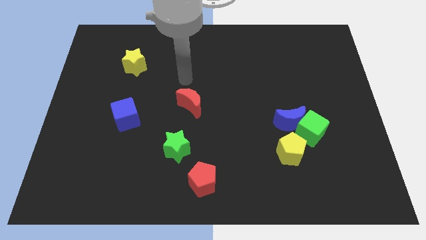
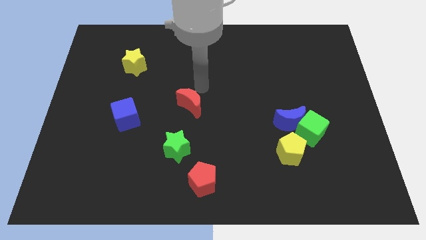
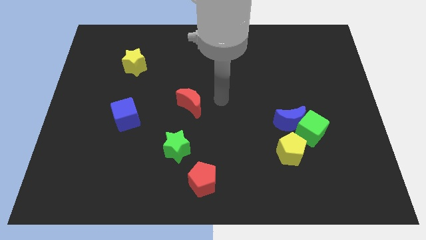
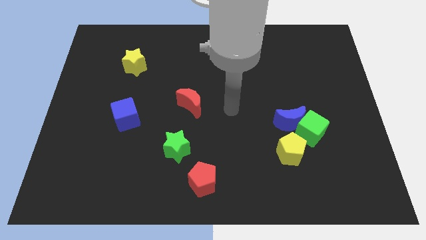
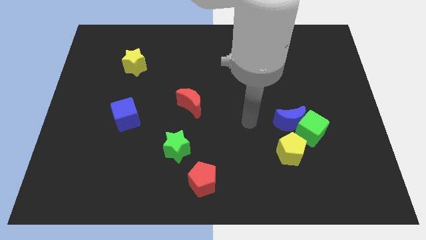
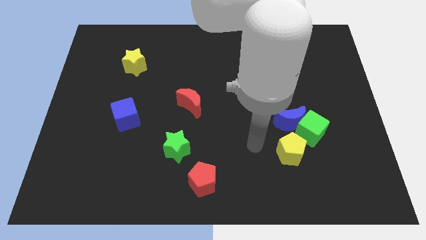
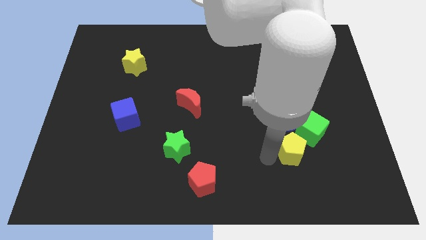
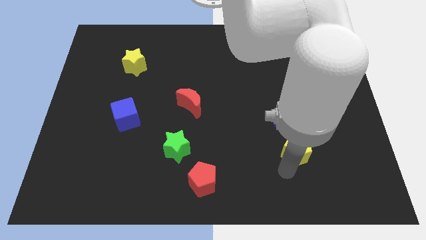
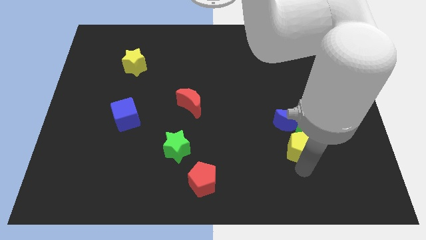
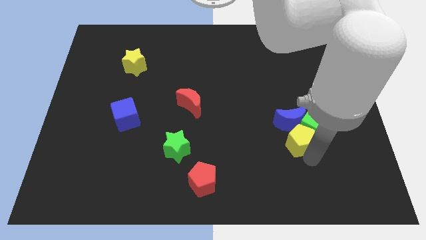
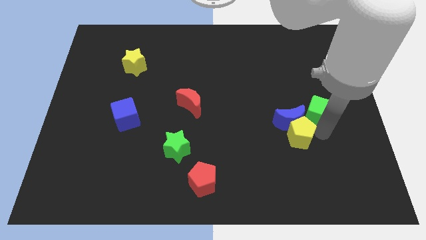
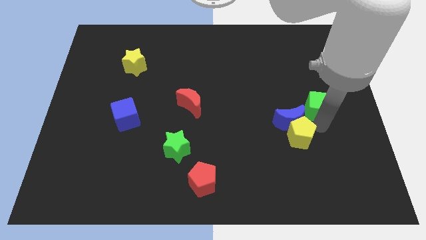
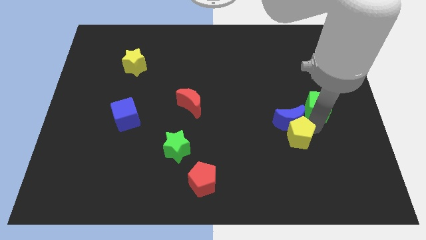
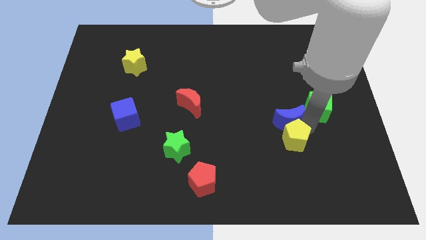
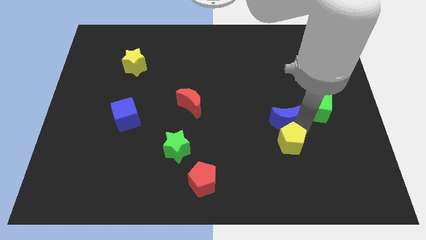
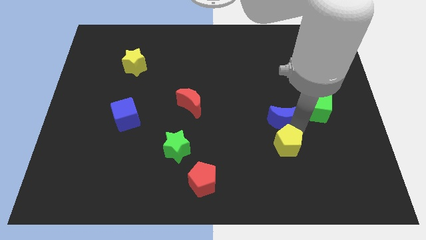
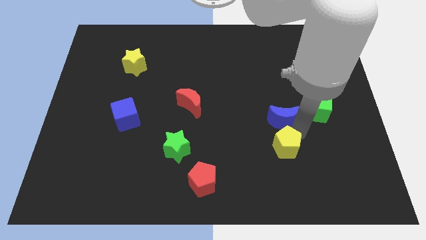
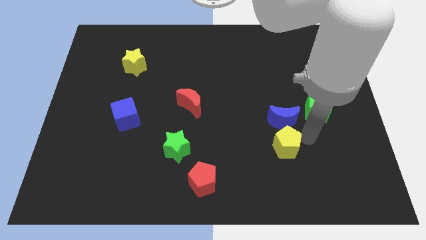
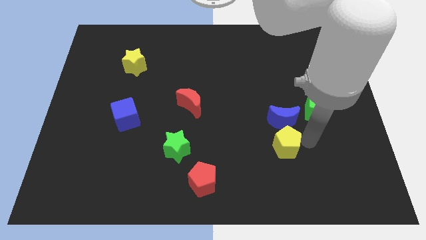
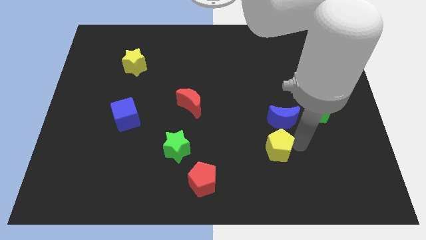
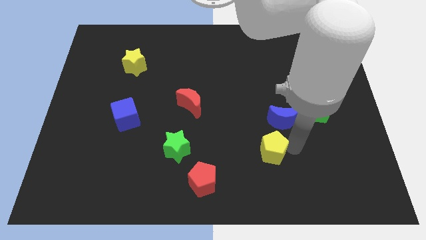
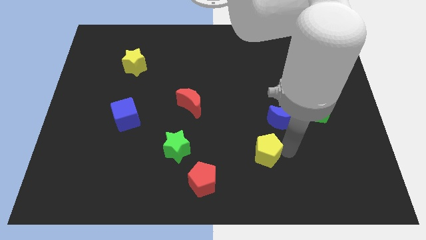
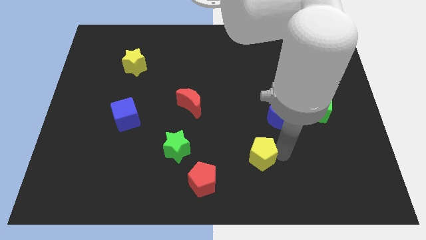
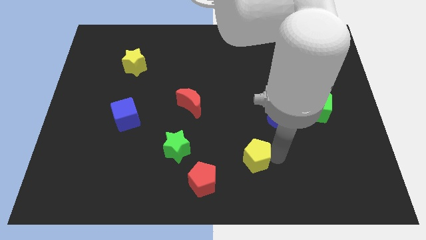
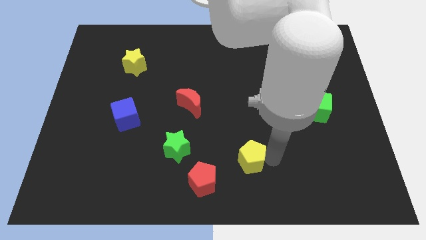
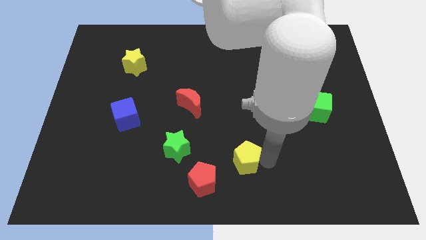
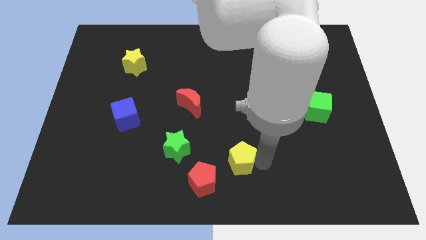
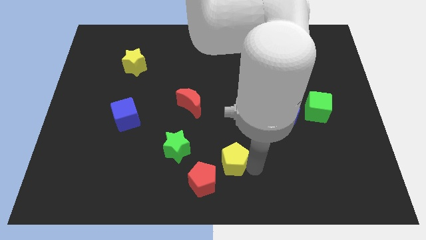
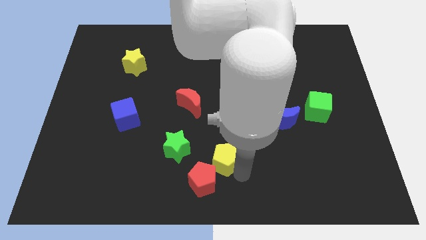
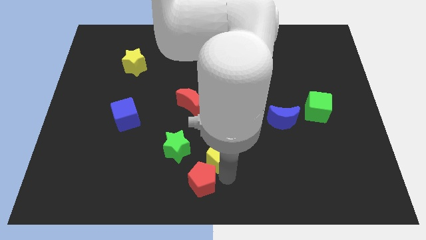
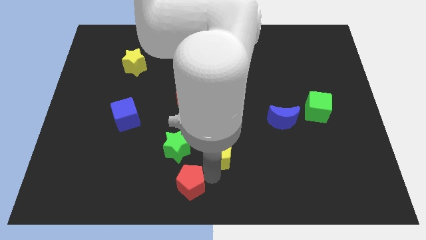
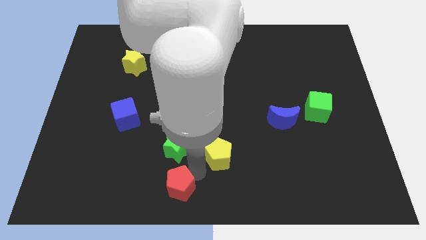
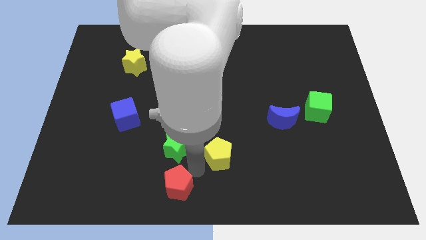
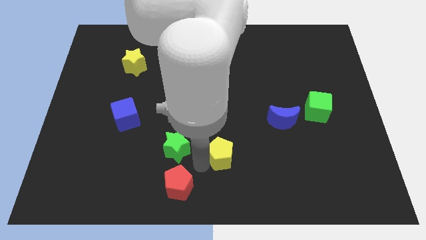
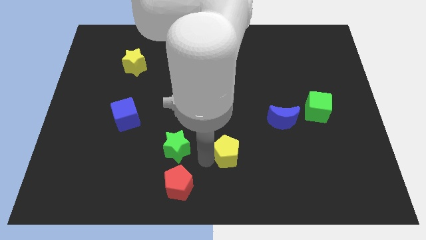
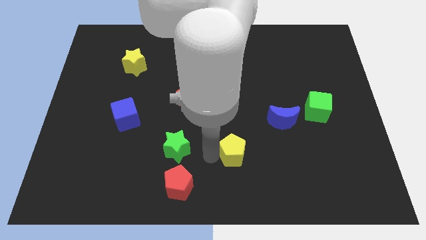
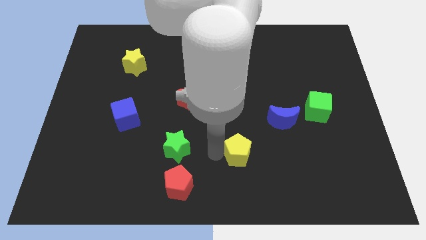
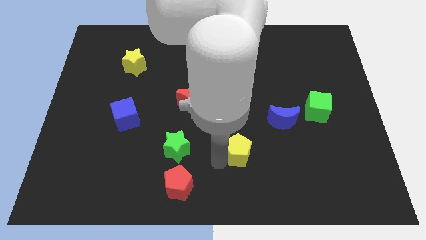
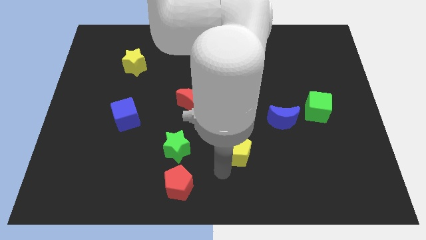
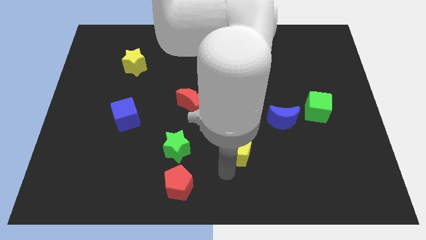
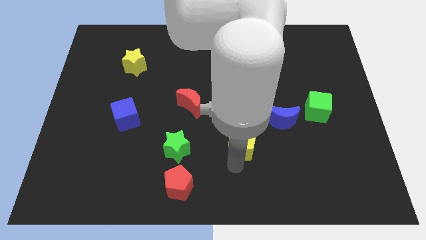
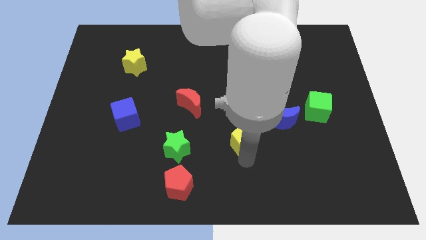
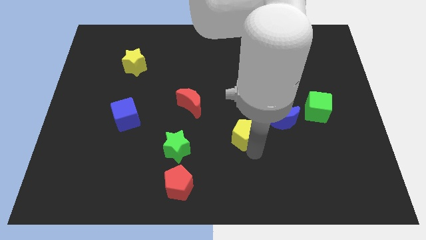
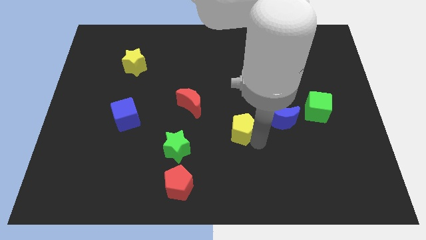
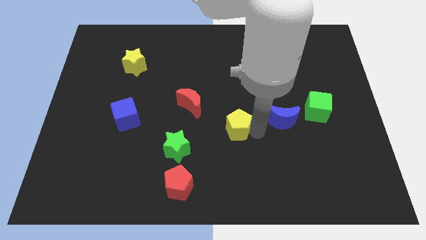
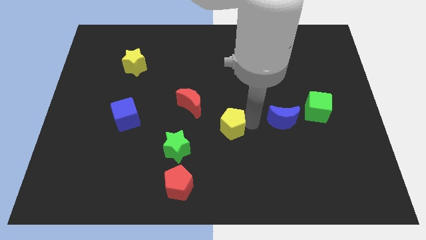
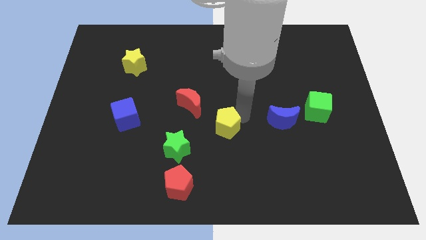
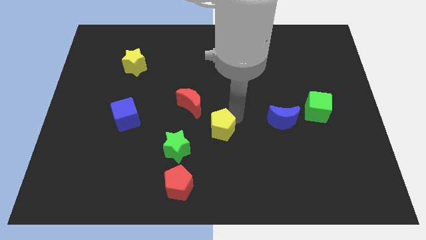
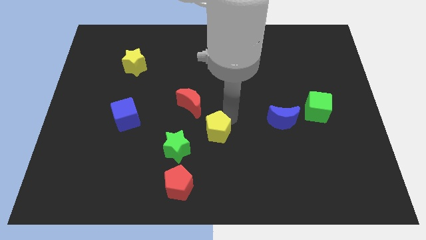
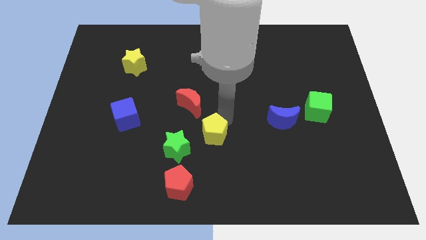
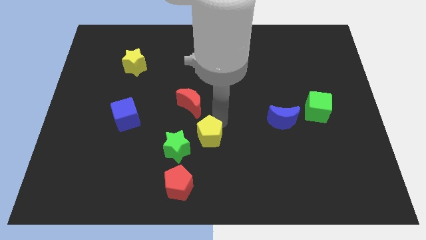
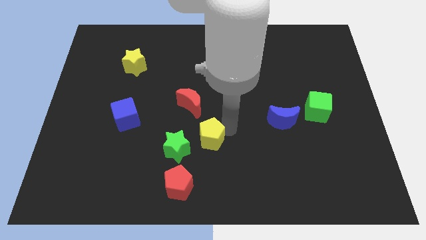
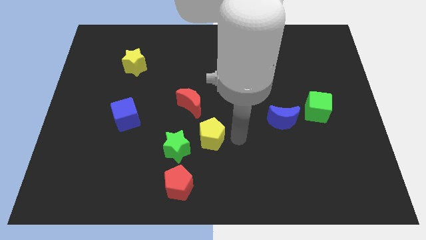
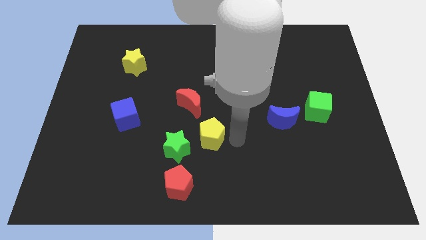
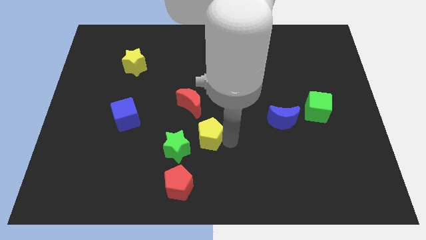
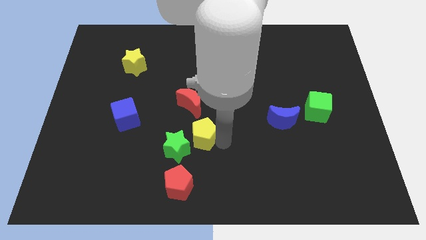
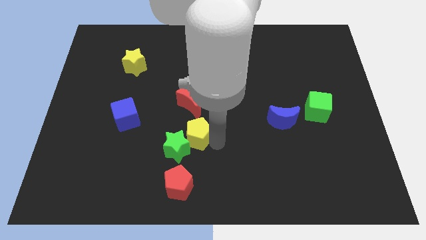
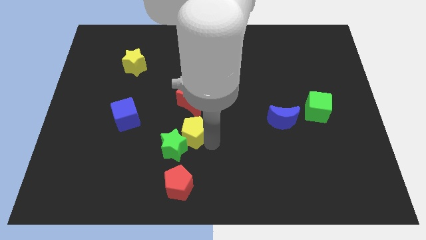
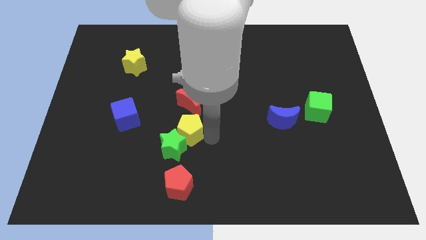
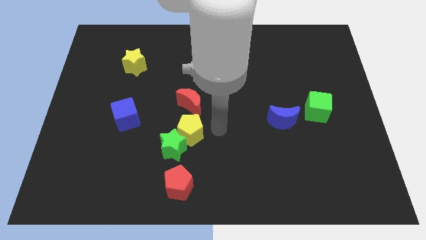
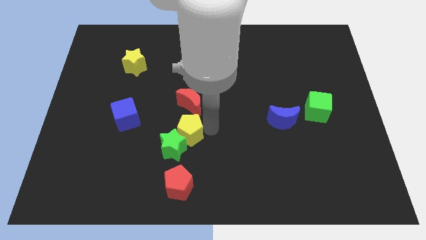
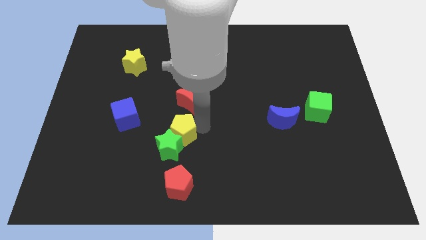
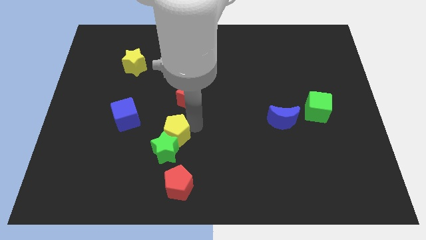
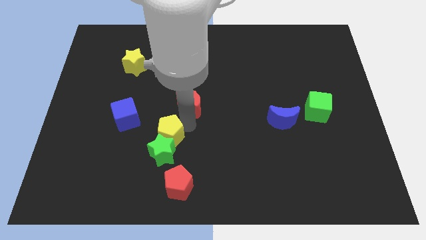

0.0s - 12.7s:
move the yellow pentagon to the bottom right side of the blue cube

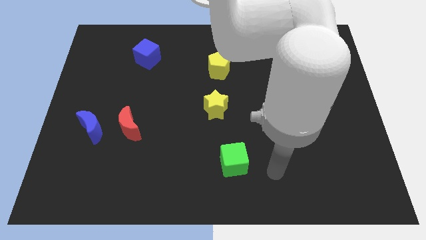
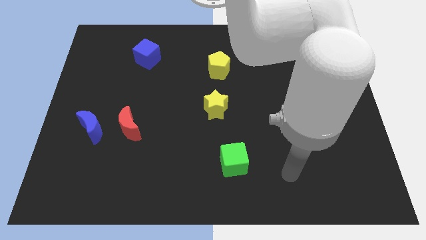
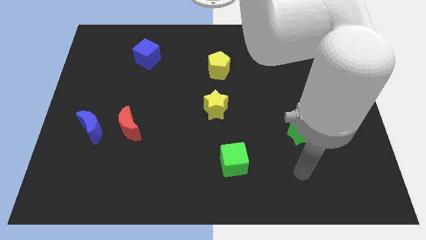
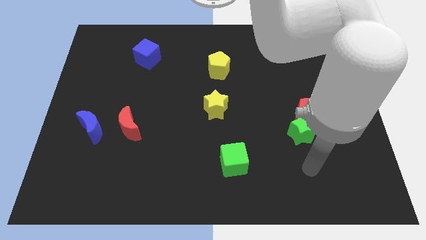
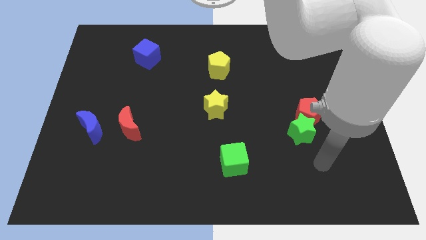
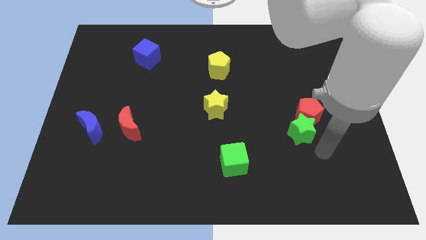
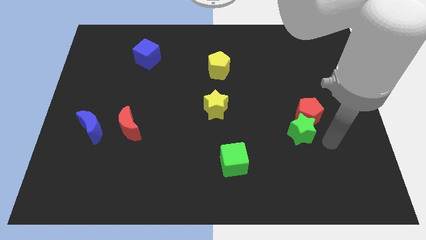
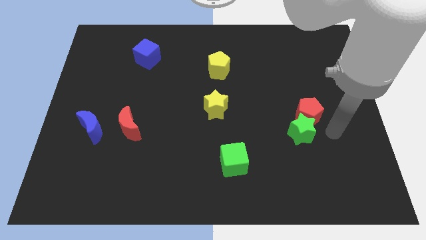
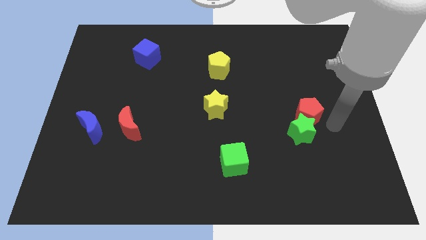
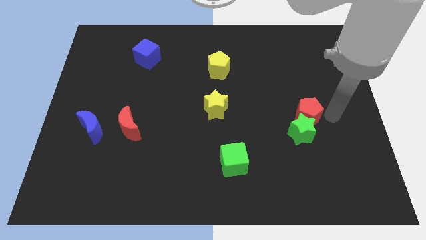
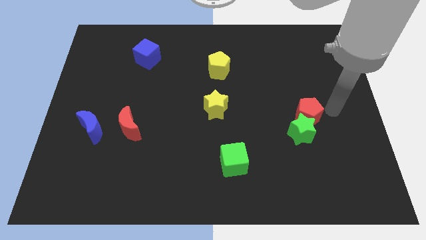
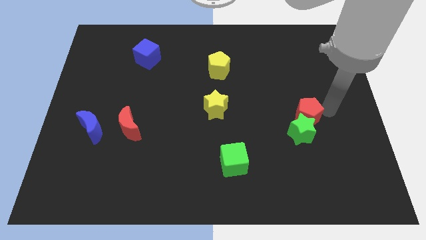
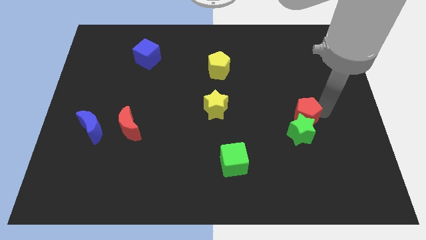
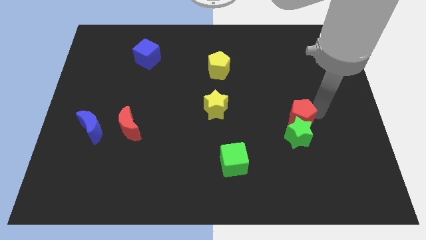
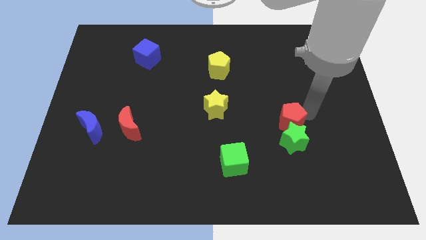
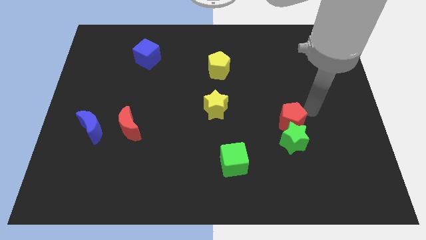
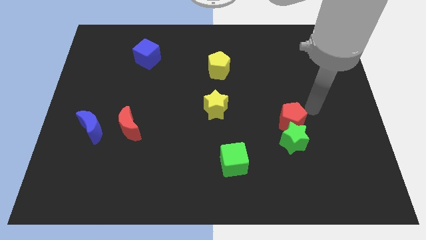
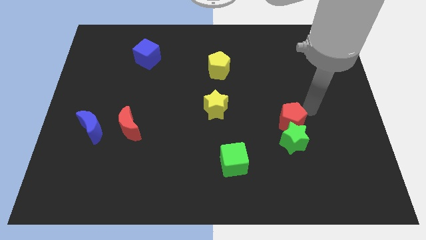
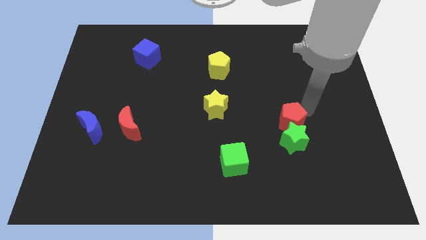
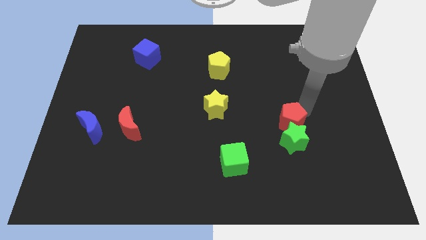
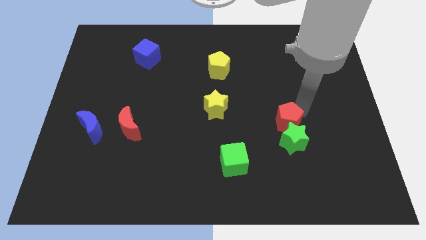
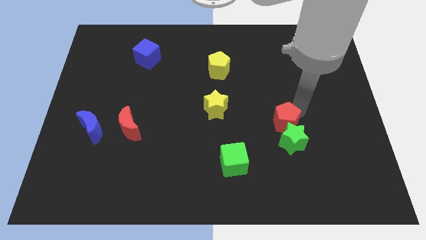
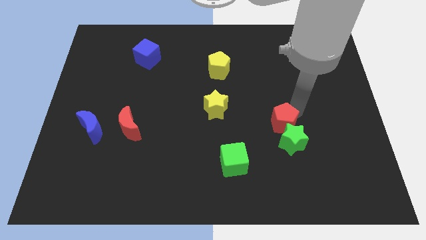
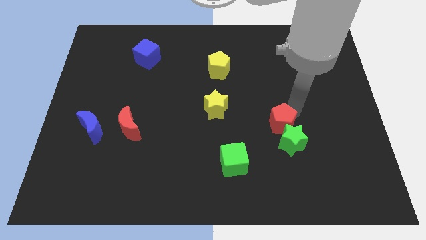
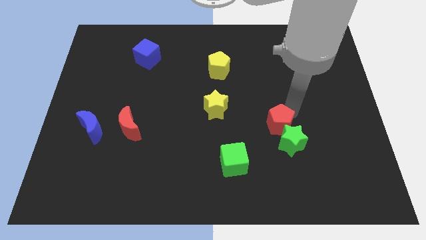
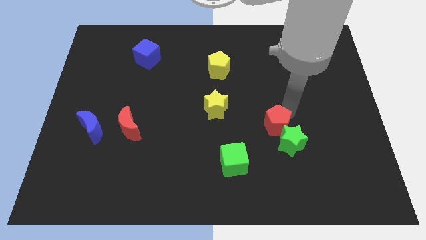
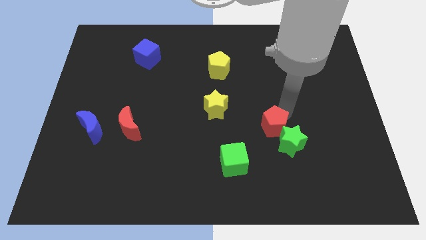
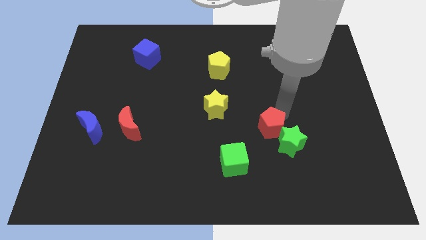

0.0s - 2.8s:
push the red pentagon diagonally up and to the right of the green cube
